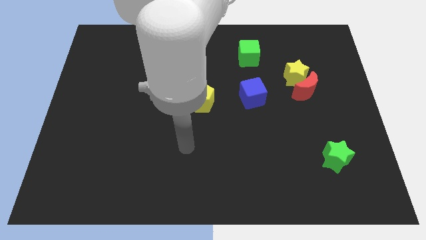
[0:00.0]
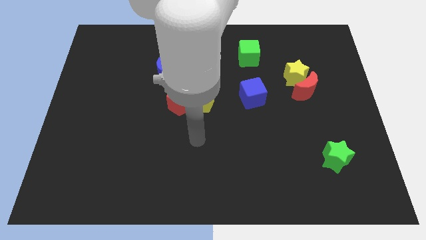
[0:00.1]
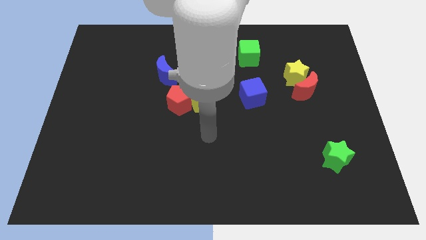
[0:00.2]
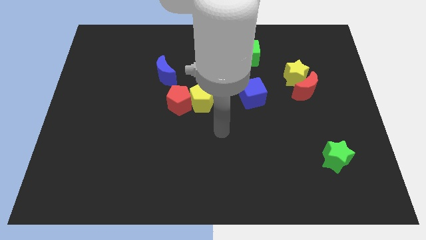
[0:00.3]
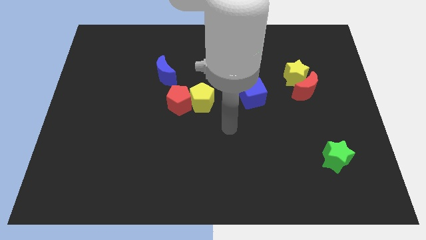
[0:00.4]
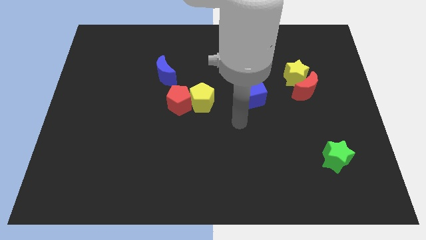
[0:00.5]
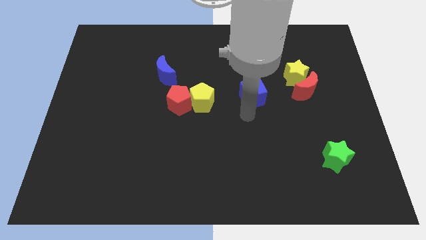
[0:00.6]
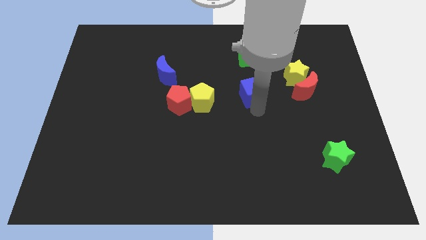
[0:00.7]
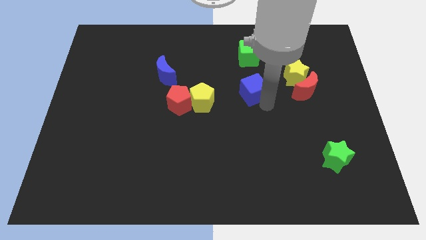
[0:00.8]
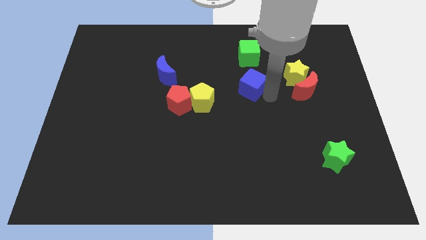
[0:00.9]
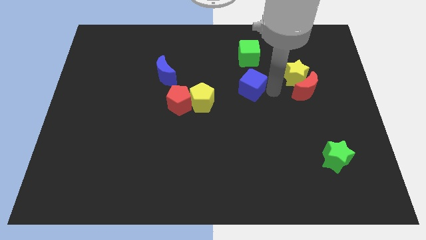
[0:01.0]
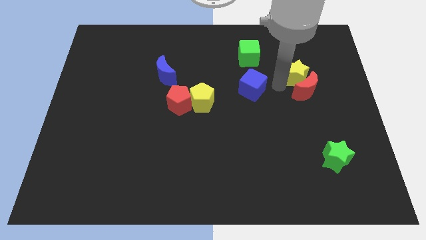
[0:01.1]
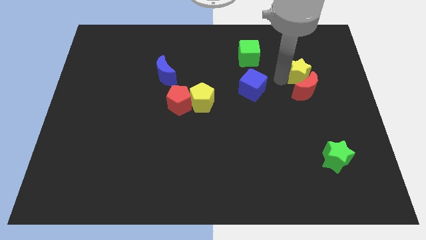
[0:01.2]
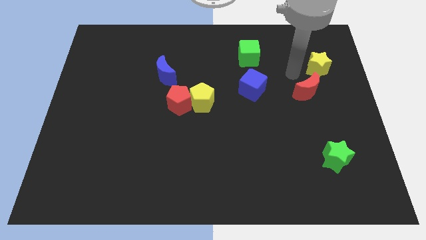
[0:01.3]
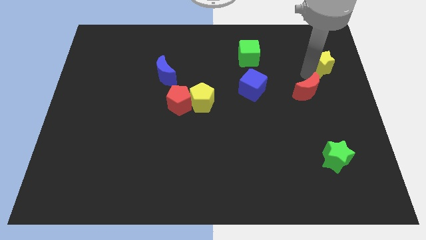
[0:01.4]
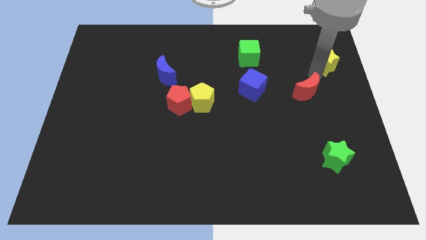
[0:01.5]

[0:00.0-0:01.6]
separate the red moon from the yellow star

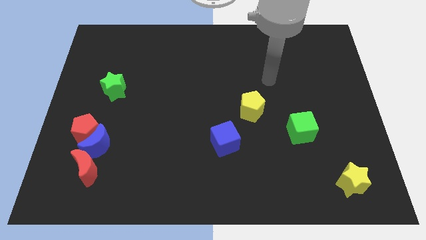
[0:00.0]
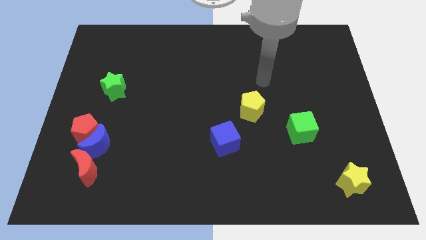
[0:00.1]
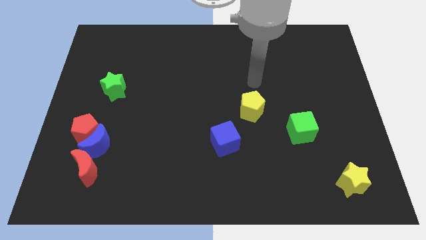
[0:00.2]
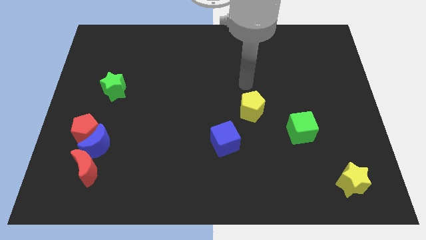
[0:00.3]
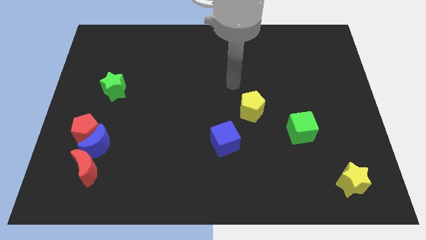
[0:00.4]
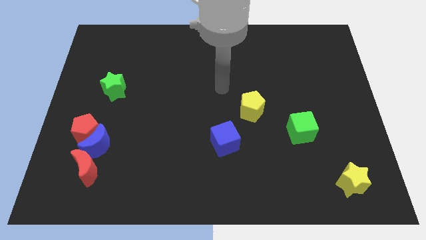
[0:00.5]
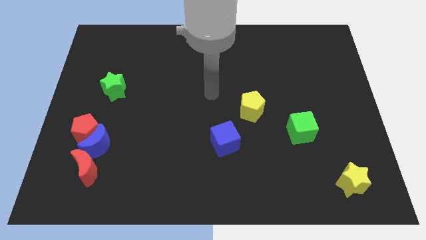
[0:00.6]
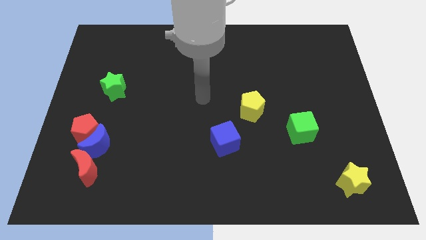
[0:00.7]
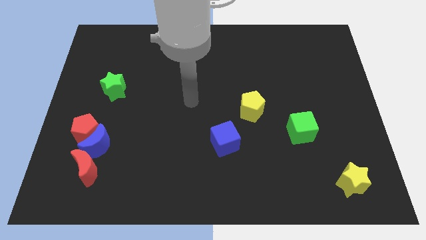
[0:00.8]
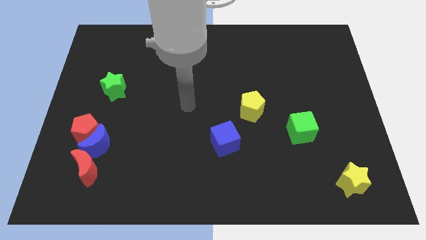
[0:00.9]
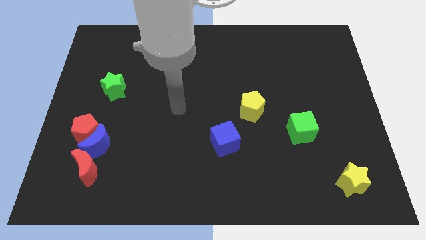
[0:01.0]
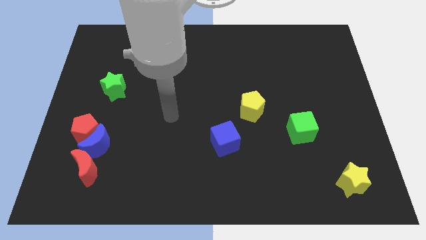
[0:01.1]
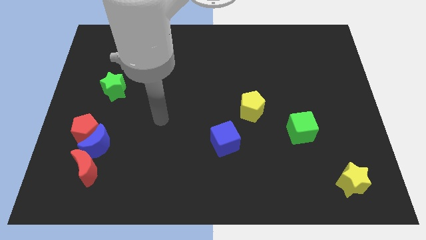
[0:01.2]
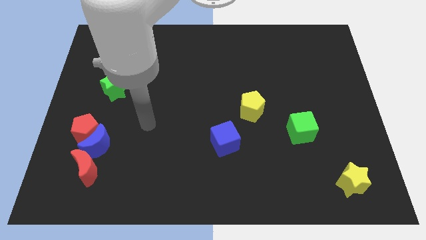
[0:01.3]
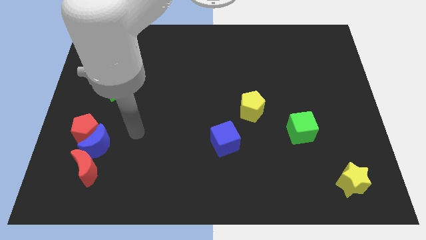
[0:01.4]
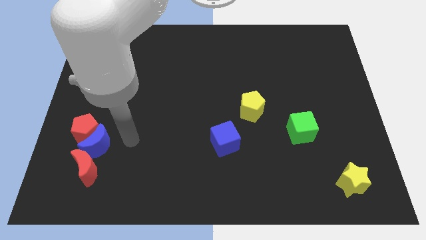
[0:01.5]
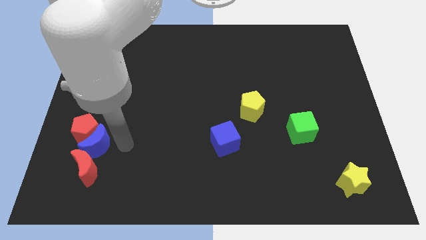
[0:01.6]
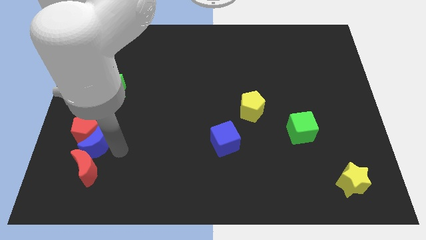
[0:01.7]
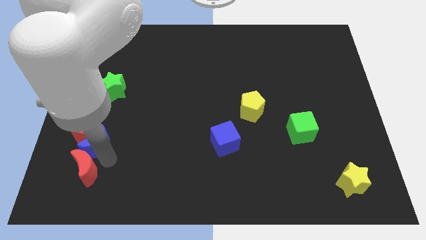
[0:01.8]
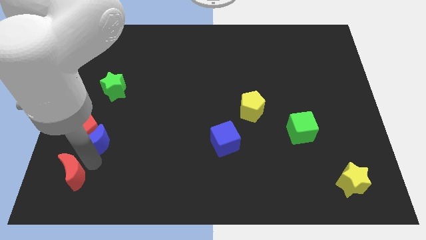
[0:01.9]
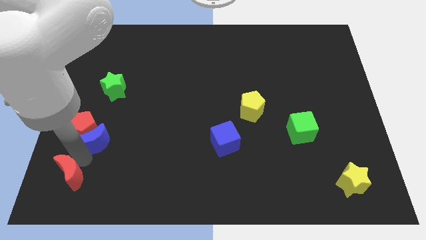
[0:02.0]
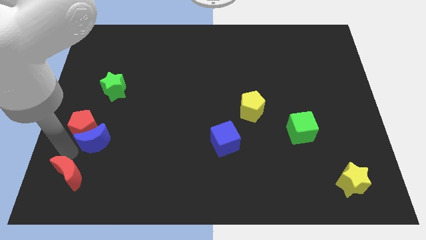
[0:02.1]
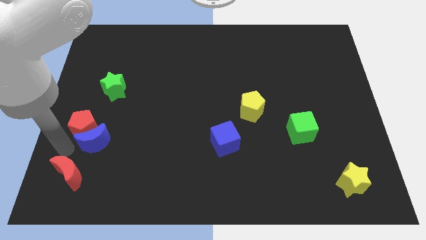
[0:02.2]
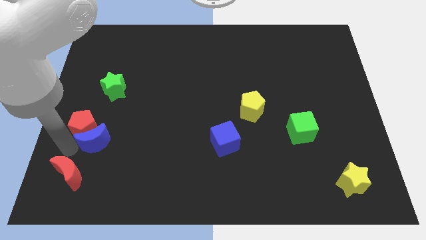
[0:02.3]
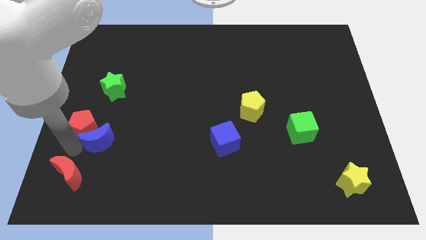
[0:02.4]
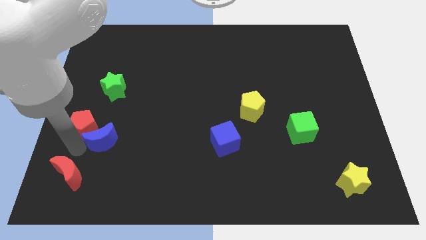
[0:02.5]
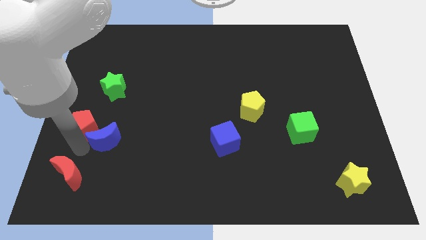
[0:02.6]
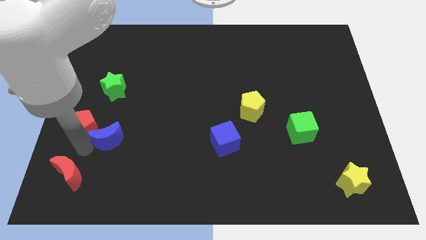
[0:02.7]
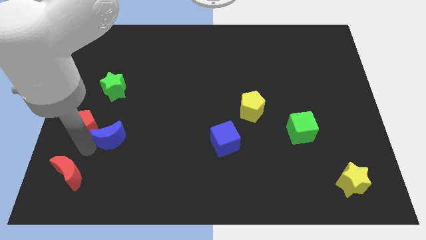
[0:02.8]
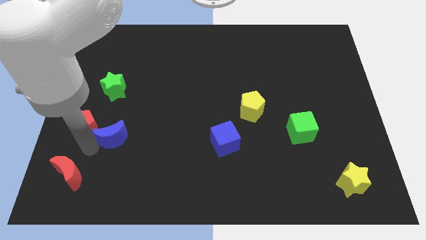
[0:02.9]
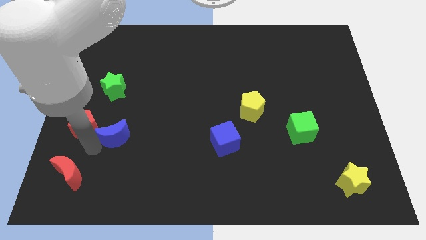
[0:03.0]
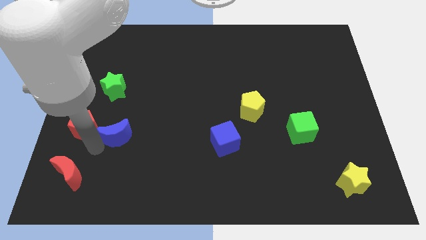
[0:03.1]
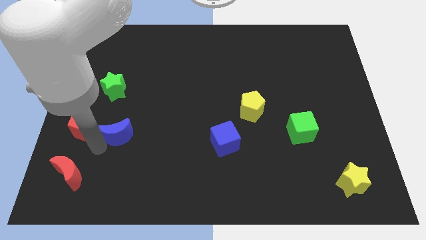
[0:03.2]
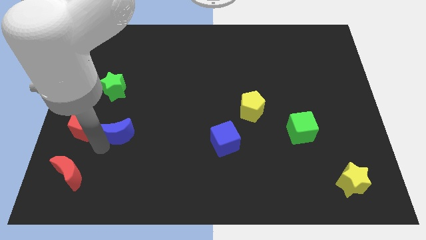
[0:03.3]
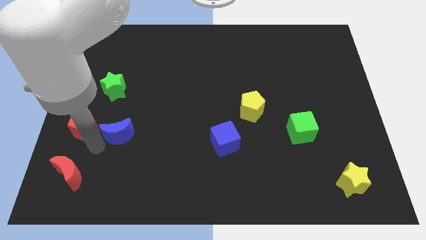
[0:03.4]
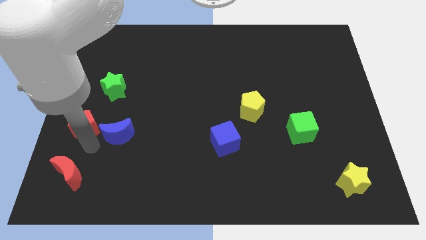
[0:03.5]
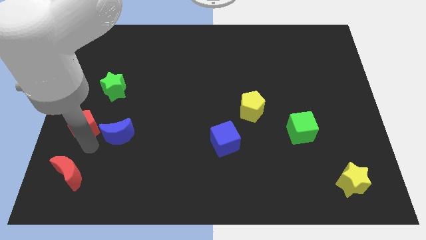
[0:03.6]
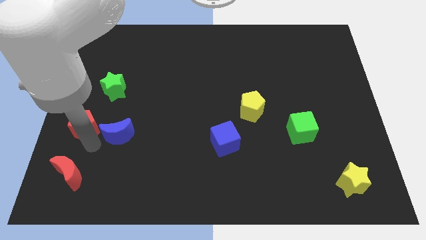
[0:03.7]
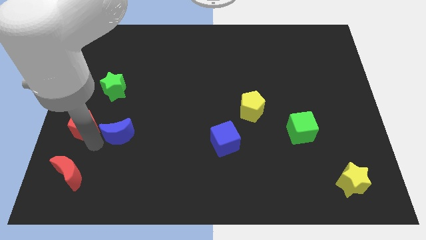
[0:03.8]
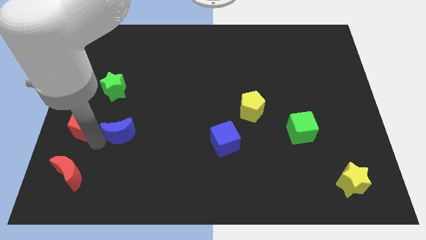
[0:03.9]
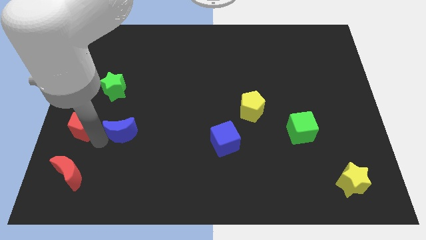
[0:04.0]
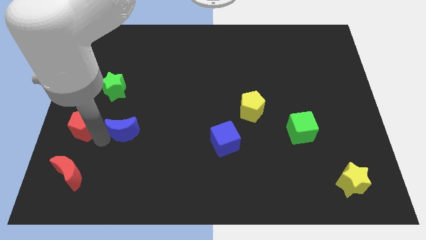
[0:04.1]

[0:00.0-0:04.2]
separate the blue moon from the red pentagon and red moon

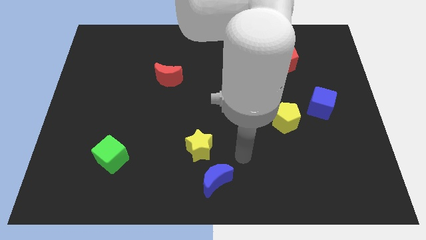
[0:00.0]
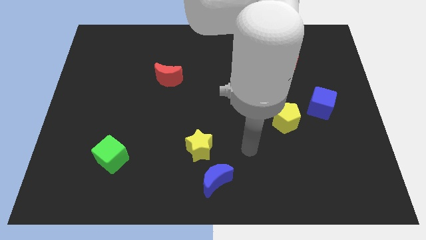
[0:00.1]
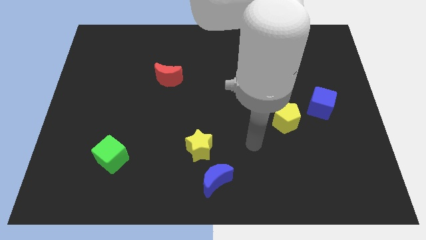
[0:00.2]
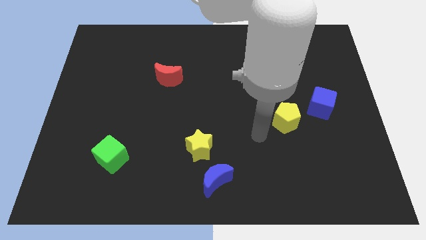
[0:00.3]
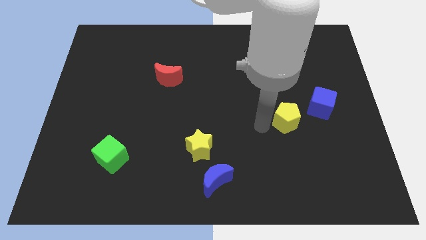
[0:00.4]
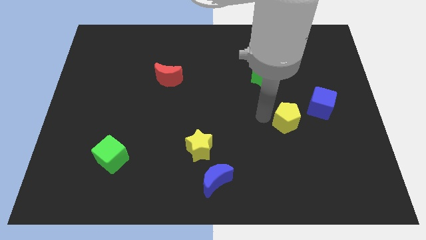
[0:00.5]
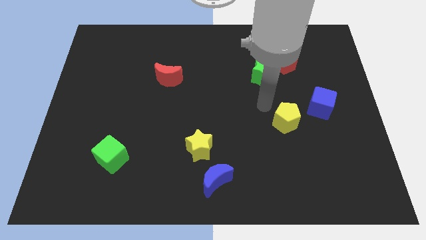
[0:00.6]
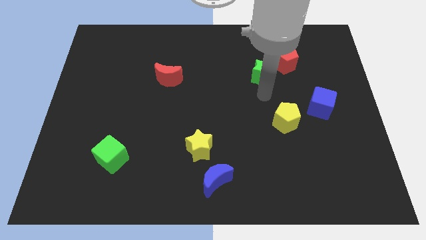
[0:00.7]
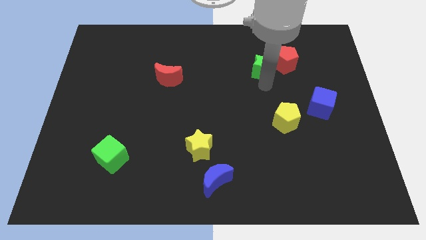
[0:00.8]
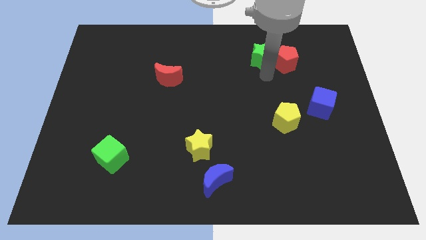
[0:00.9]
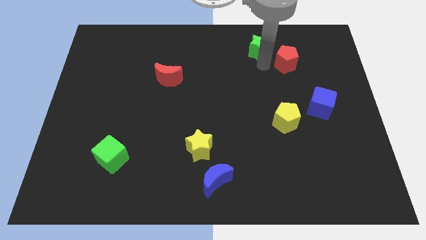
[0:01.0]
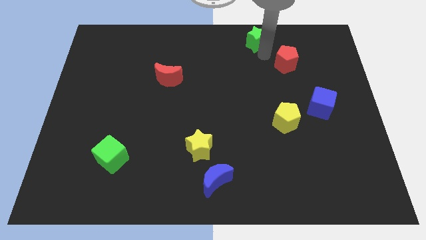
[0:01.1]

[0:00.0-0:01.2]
separate the red pentagon from the green star

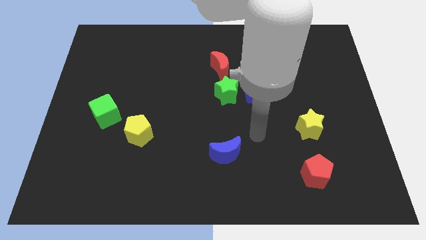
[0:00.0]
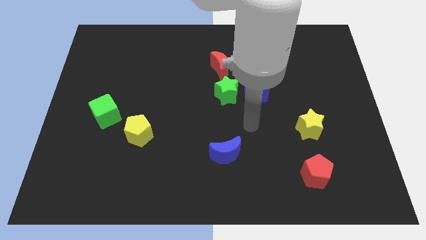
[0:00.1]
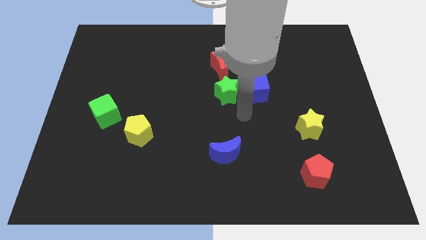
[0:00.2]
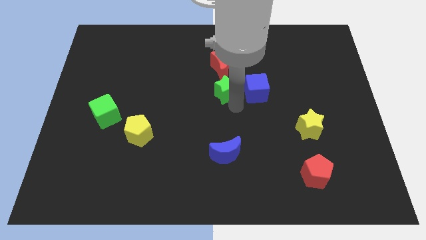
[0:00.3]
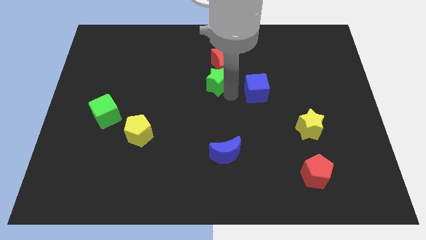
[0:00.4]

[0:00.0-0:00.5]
move the blue cube away from the green star

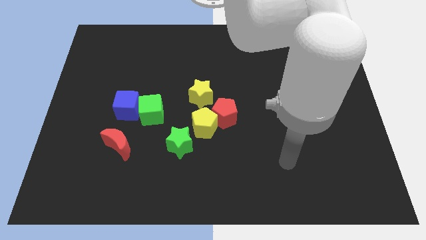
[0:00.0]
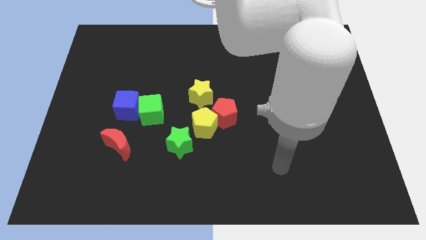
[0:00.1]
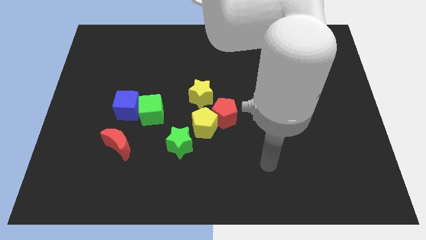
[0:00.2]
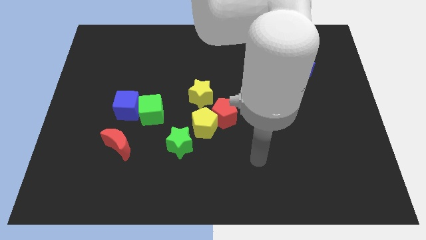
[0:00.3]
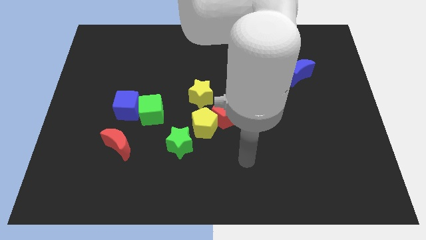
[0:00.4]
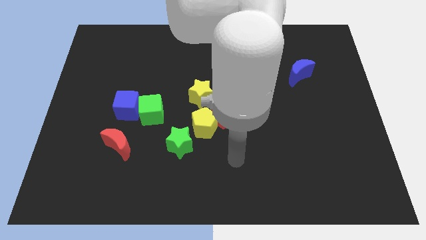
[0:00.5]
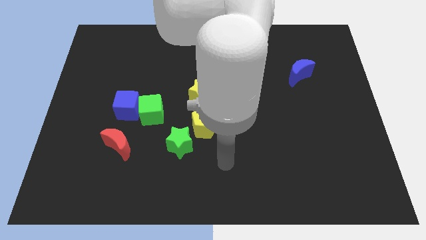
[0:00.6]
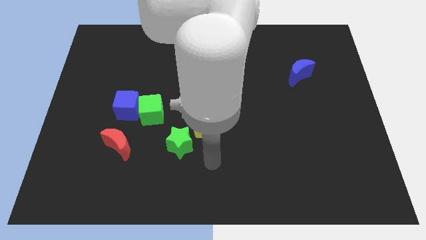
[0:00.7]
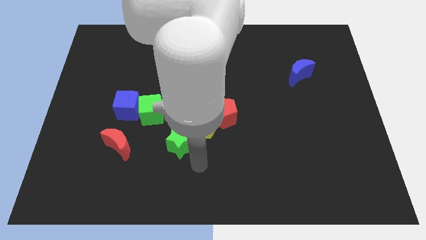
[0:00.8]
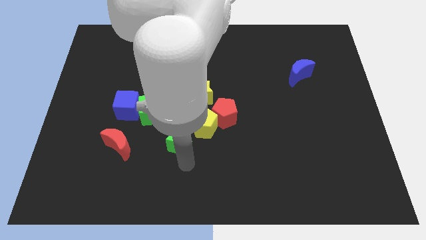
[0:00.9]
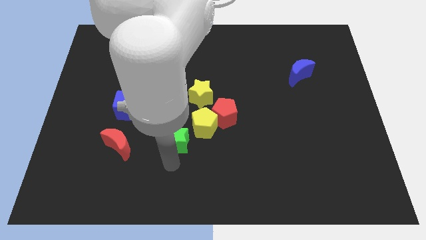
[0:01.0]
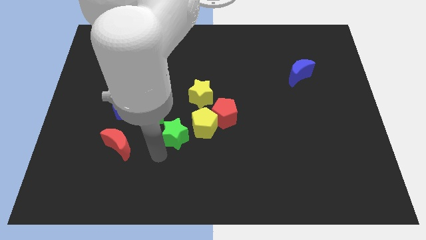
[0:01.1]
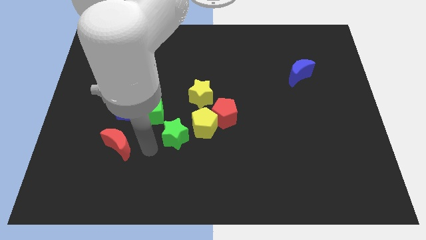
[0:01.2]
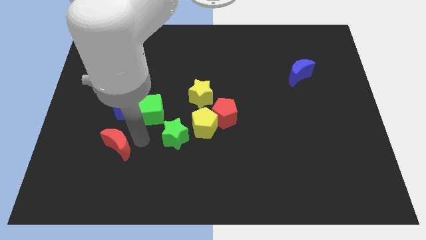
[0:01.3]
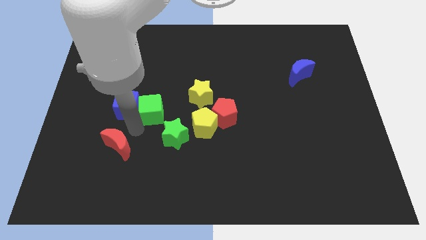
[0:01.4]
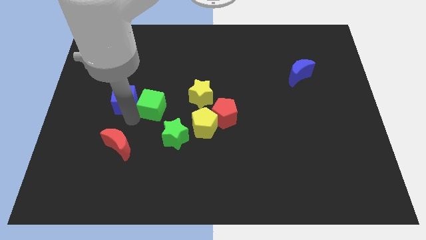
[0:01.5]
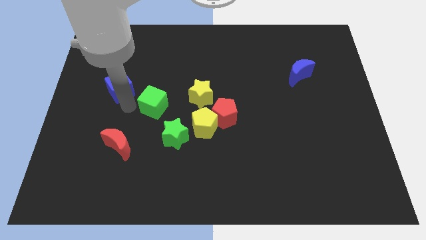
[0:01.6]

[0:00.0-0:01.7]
pull the green cube apart from the blue cube

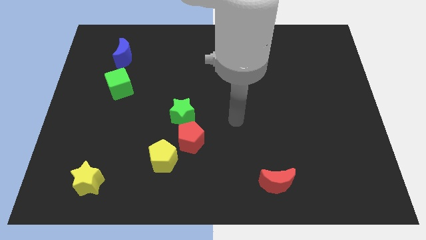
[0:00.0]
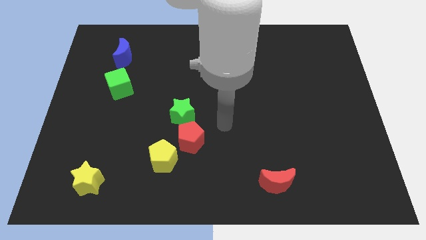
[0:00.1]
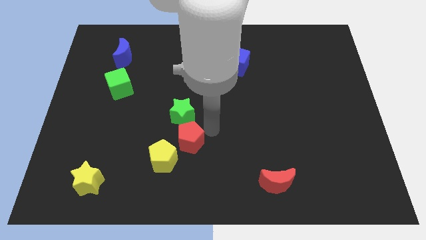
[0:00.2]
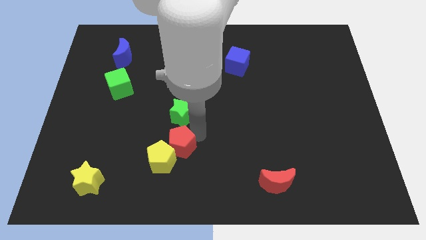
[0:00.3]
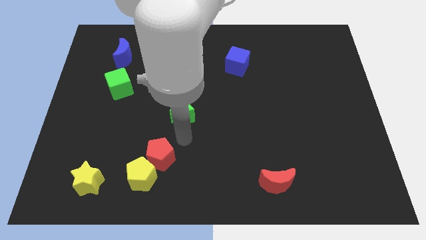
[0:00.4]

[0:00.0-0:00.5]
pull the green star apart from the red pentagon
